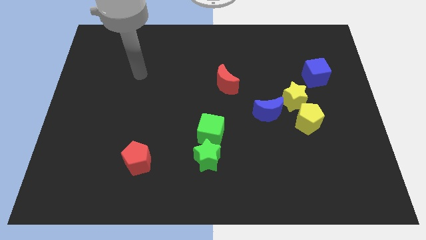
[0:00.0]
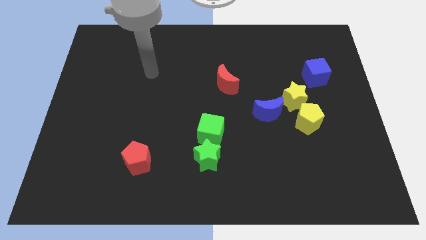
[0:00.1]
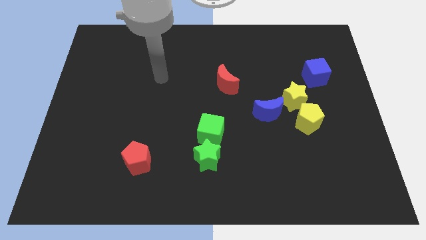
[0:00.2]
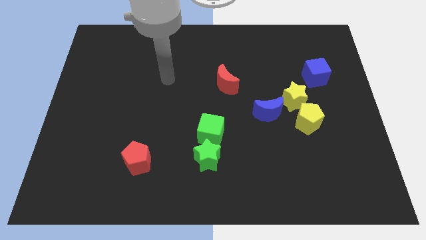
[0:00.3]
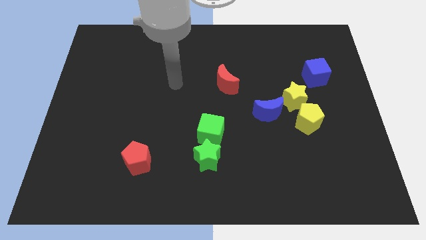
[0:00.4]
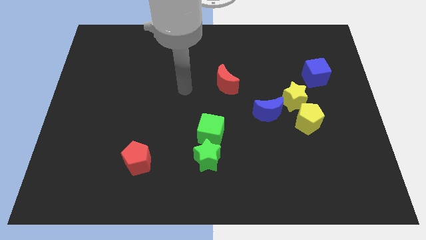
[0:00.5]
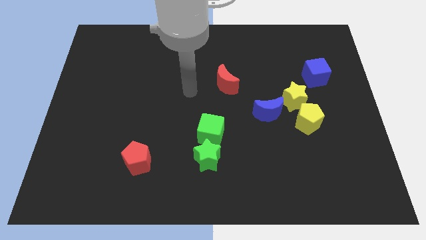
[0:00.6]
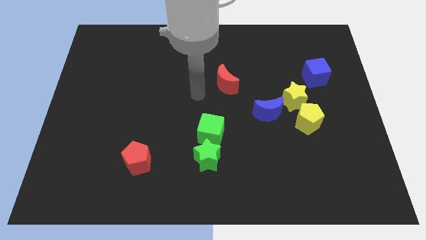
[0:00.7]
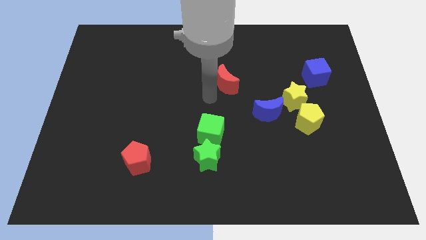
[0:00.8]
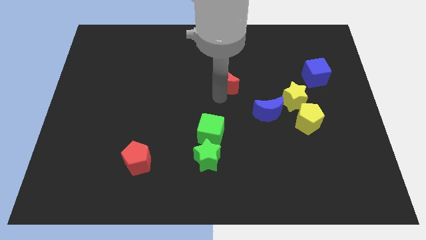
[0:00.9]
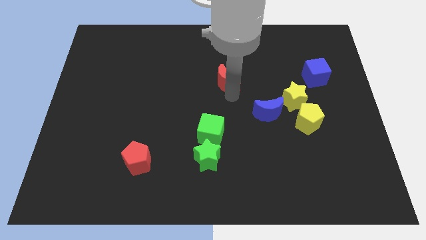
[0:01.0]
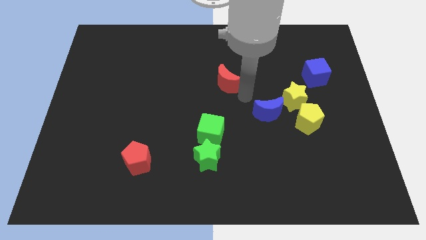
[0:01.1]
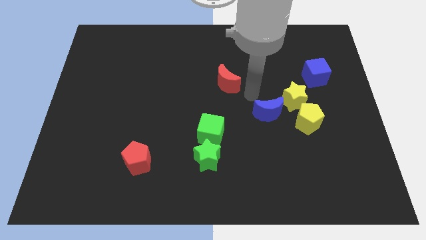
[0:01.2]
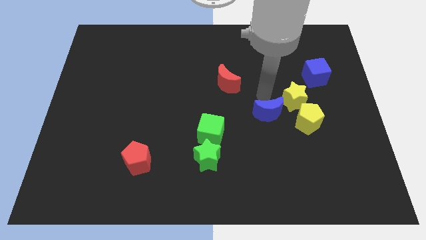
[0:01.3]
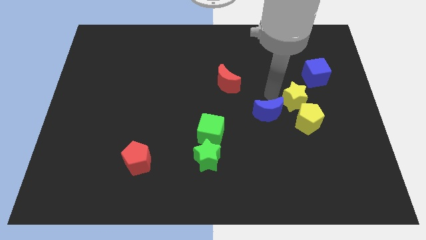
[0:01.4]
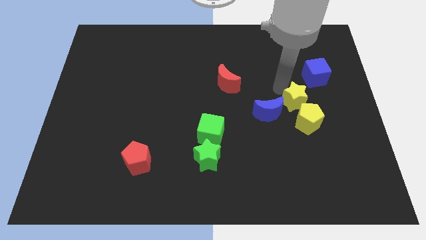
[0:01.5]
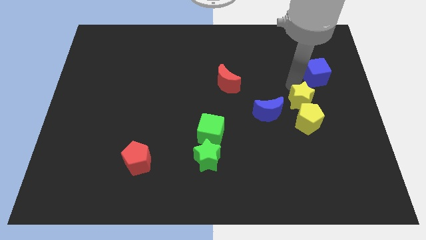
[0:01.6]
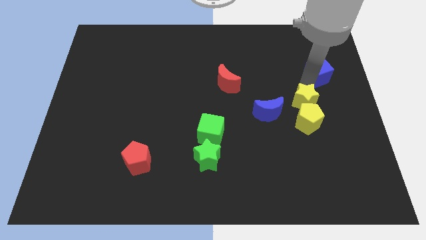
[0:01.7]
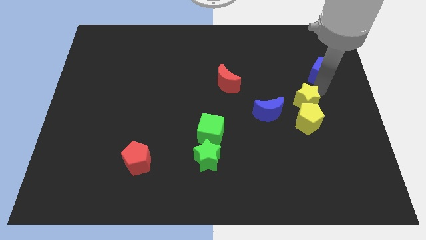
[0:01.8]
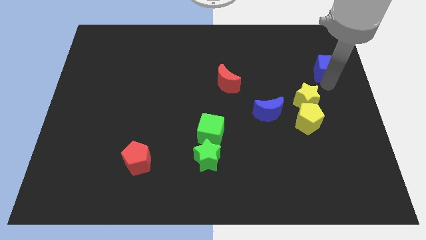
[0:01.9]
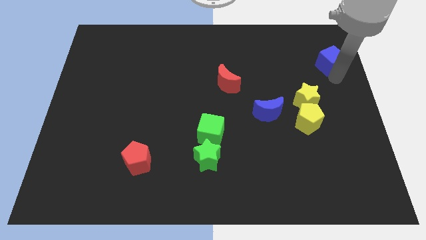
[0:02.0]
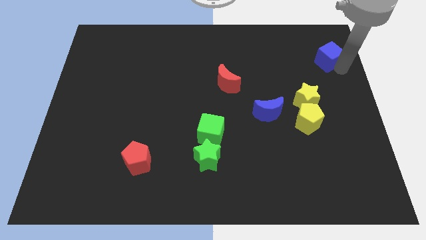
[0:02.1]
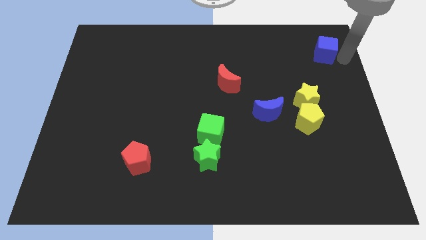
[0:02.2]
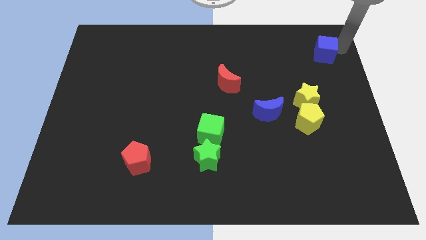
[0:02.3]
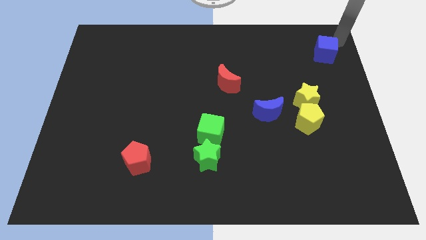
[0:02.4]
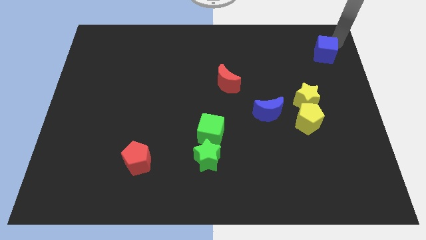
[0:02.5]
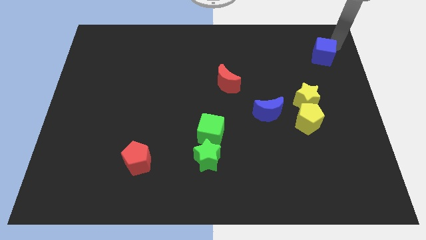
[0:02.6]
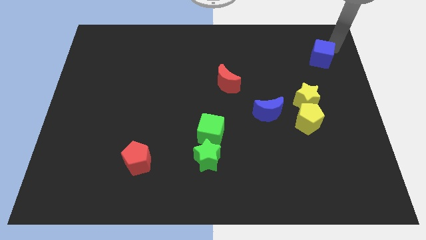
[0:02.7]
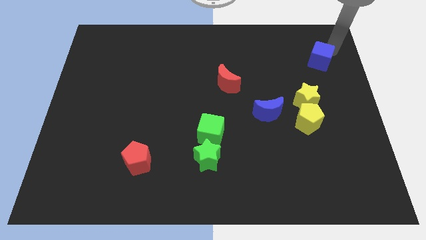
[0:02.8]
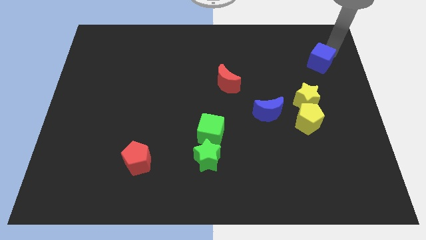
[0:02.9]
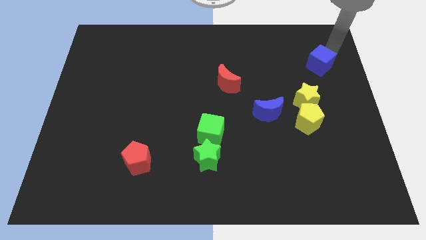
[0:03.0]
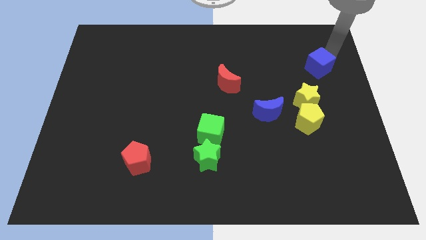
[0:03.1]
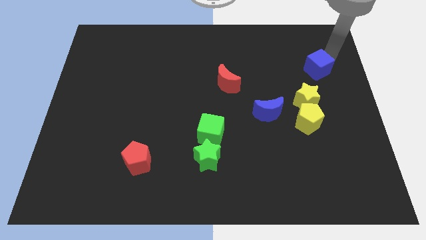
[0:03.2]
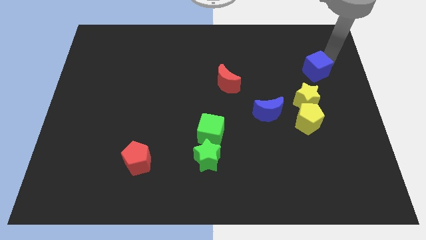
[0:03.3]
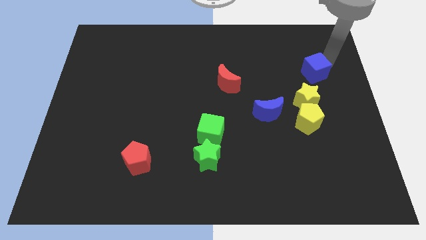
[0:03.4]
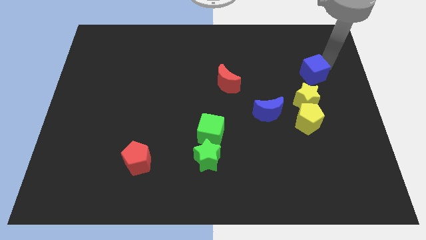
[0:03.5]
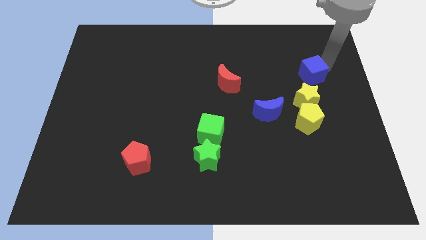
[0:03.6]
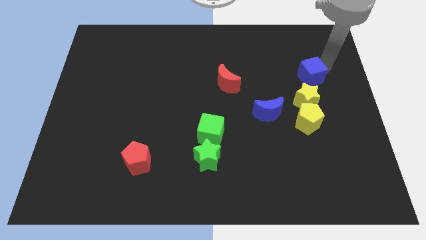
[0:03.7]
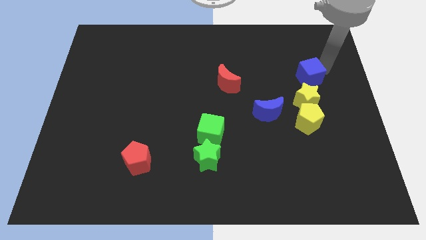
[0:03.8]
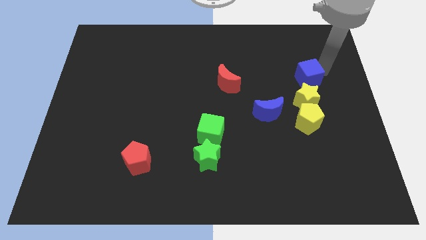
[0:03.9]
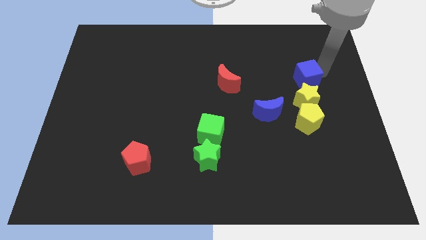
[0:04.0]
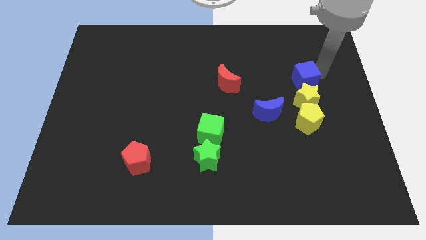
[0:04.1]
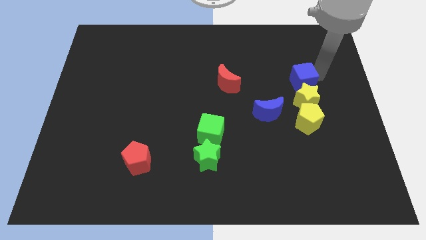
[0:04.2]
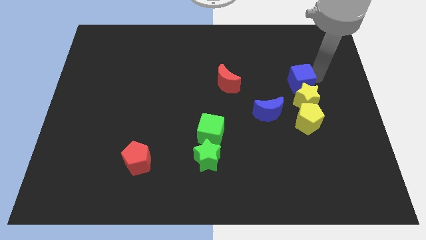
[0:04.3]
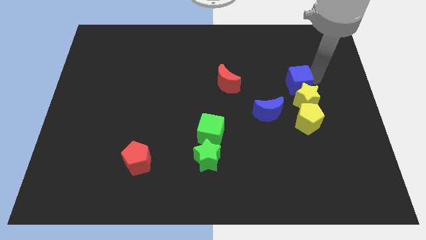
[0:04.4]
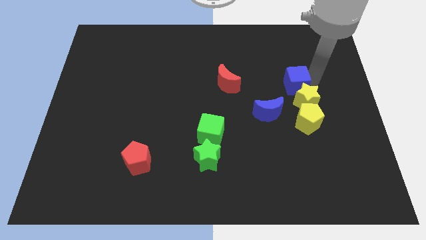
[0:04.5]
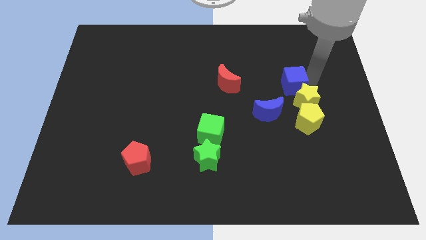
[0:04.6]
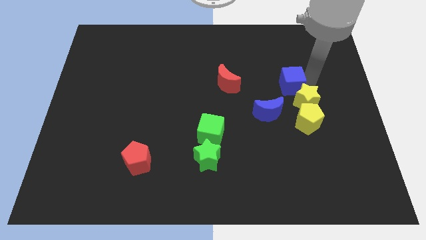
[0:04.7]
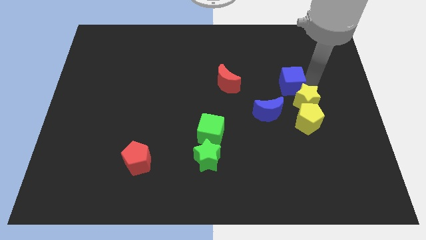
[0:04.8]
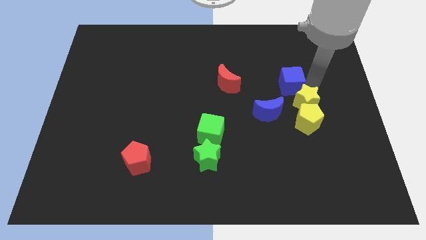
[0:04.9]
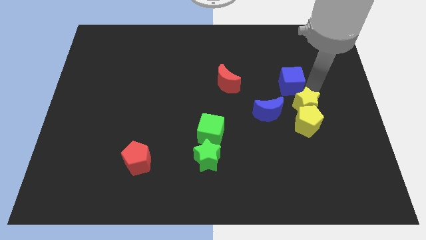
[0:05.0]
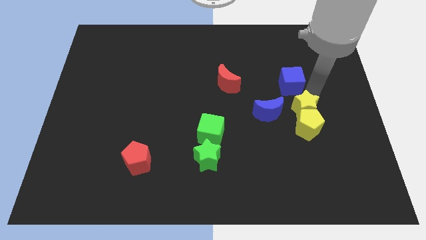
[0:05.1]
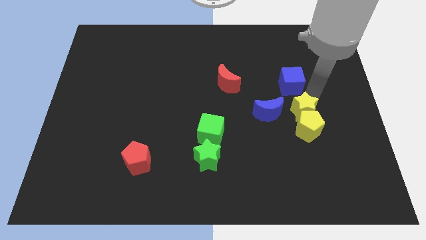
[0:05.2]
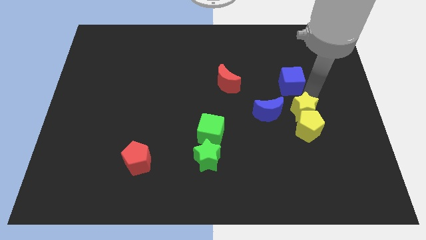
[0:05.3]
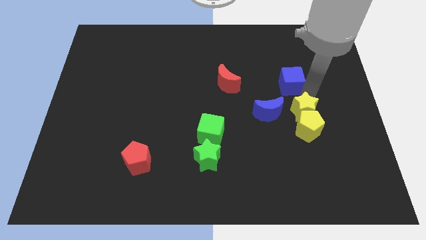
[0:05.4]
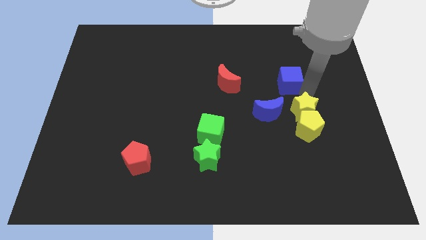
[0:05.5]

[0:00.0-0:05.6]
move the blue cube a little left

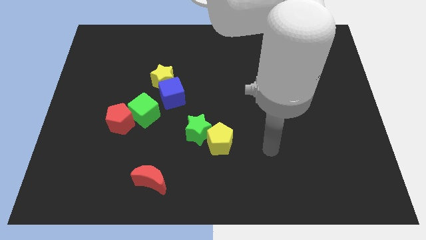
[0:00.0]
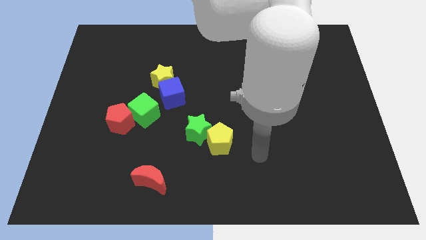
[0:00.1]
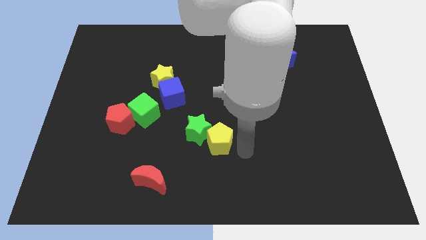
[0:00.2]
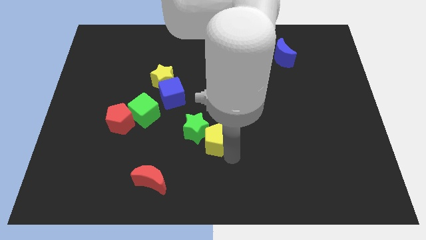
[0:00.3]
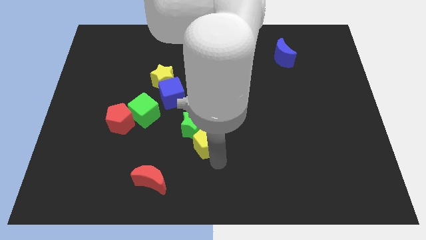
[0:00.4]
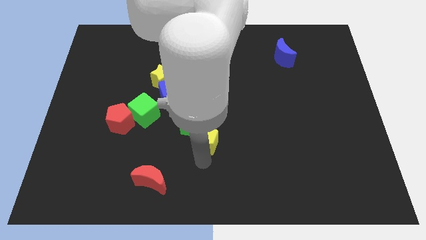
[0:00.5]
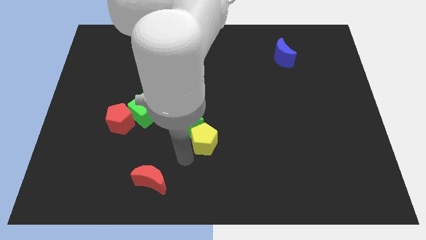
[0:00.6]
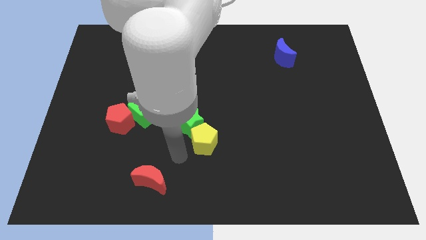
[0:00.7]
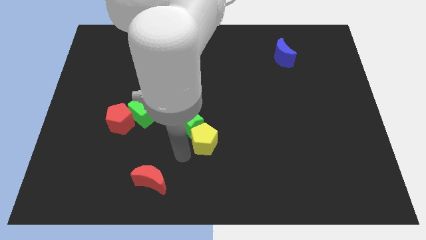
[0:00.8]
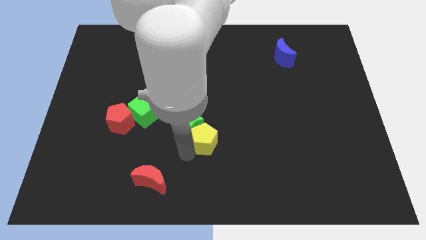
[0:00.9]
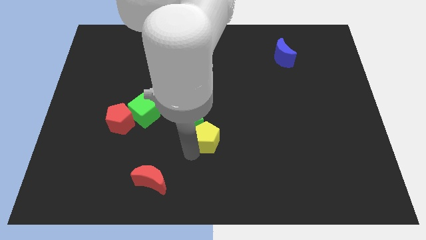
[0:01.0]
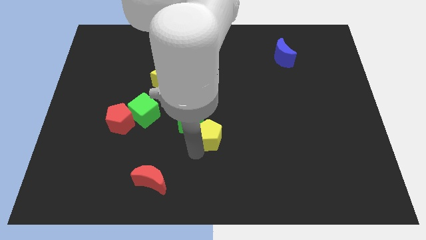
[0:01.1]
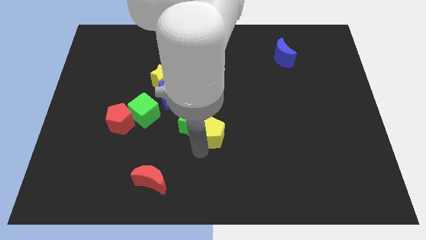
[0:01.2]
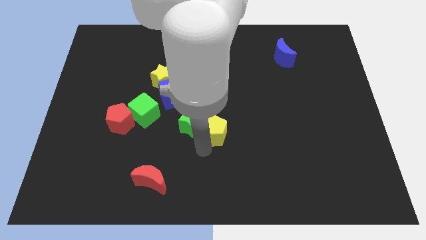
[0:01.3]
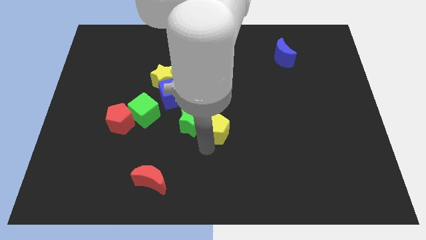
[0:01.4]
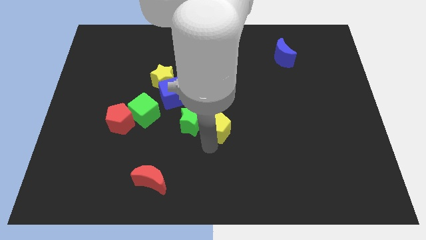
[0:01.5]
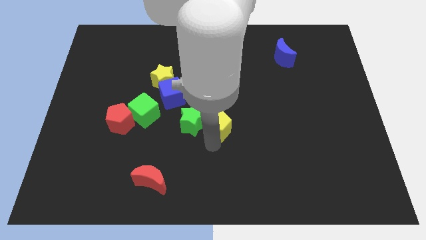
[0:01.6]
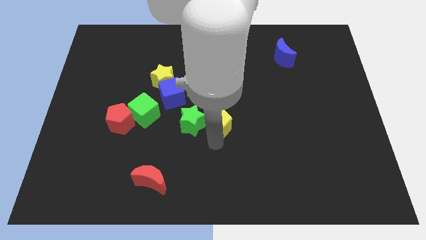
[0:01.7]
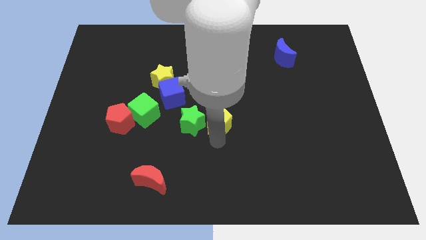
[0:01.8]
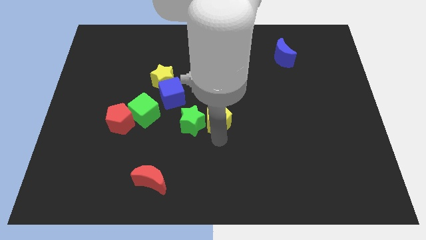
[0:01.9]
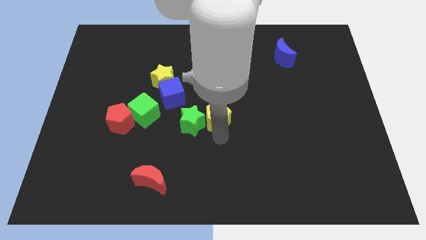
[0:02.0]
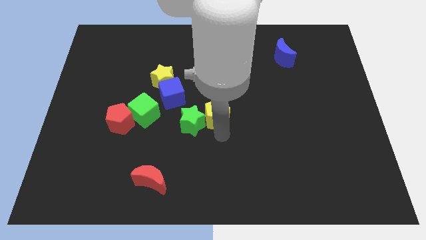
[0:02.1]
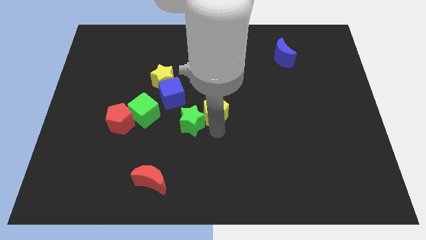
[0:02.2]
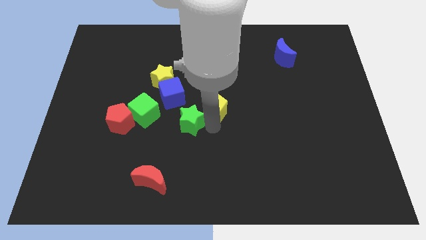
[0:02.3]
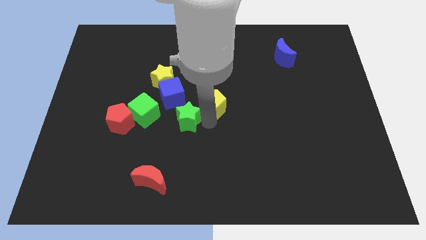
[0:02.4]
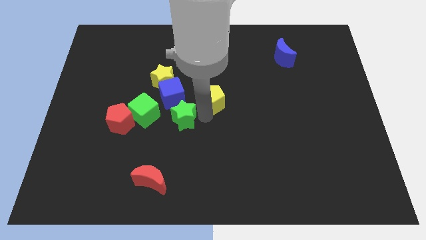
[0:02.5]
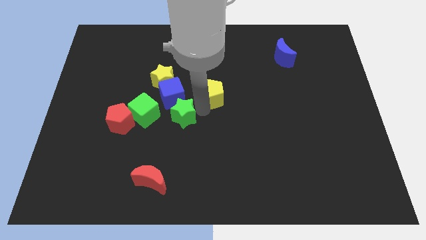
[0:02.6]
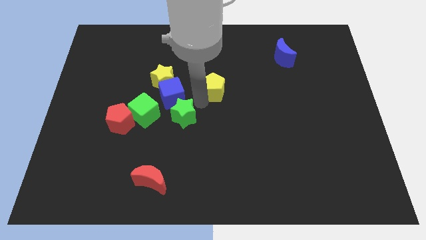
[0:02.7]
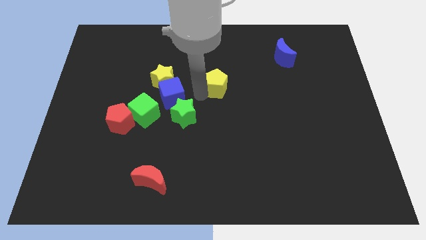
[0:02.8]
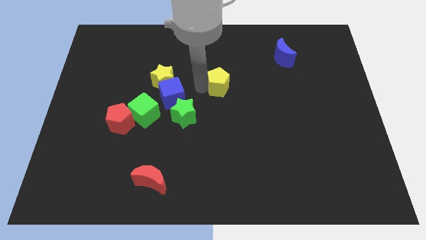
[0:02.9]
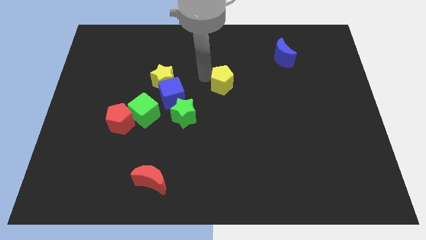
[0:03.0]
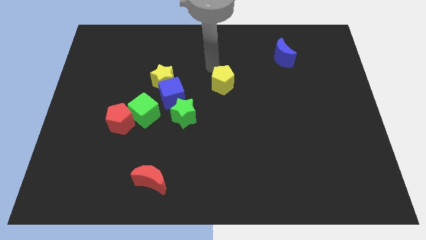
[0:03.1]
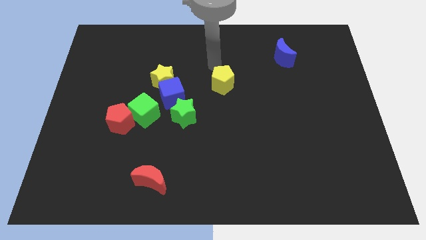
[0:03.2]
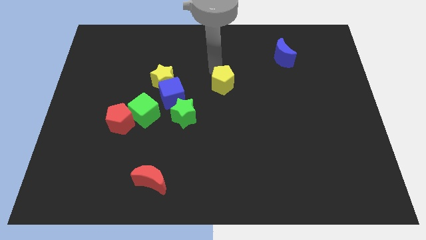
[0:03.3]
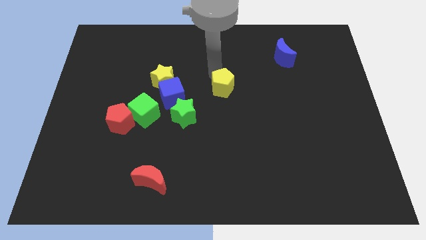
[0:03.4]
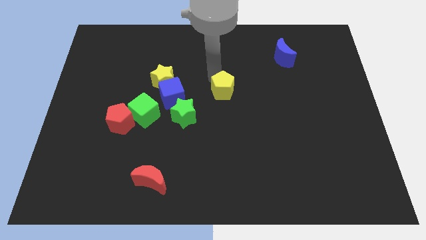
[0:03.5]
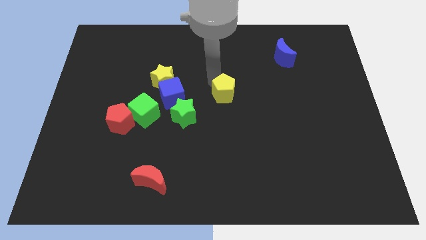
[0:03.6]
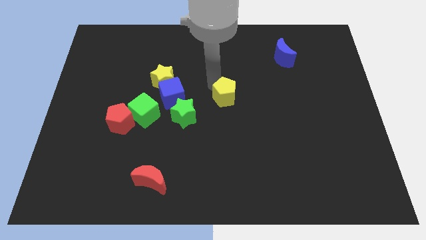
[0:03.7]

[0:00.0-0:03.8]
slightly push the yellow pentagon upwards and then right
